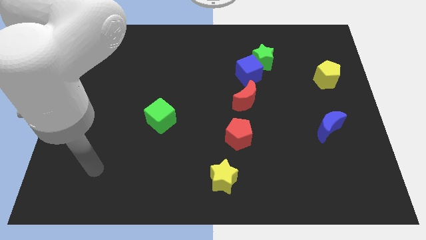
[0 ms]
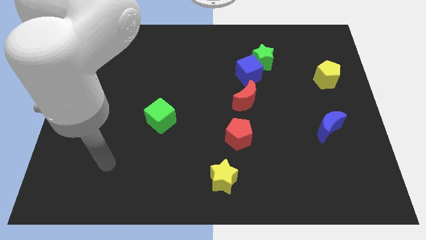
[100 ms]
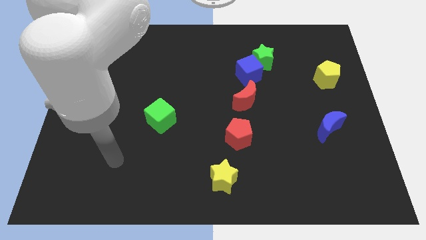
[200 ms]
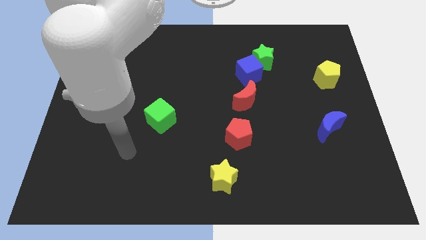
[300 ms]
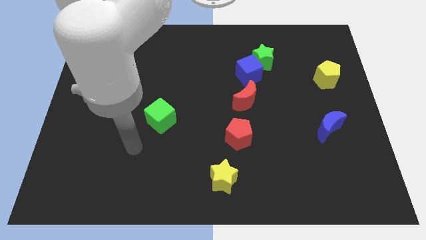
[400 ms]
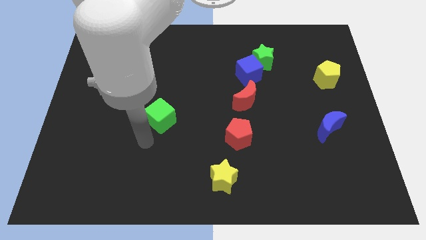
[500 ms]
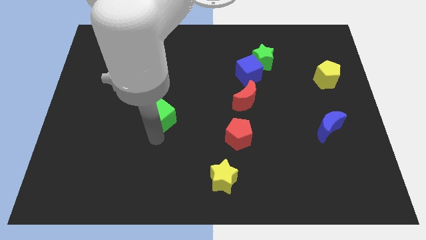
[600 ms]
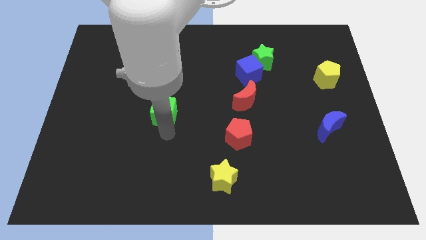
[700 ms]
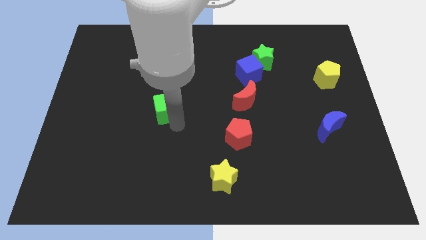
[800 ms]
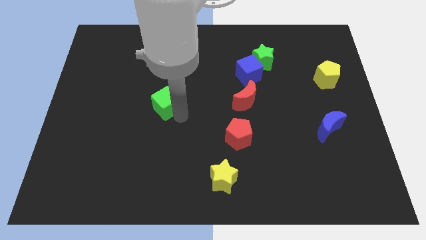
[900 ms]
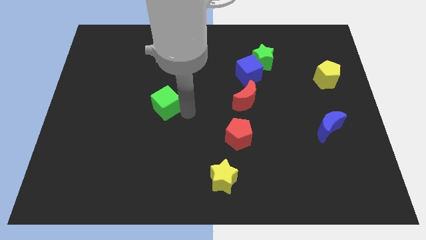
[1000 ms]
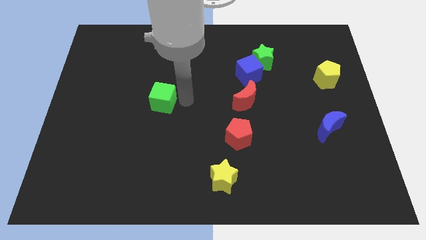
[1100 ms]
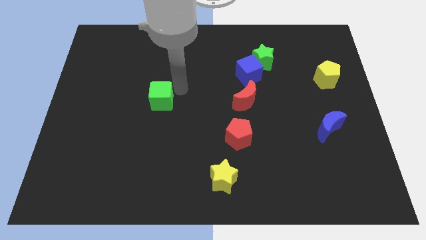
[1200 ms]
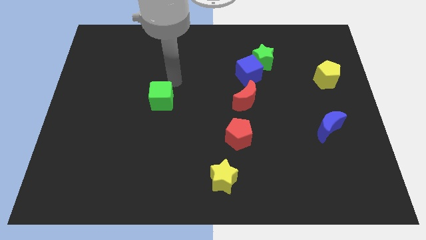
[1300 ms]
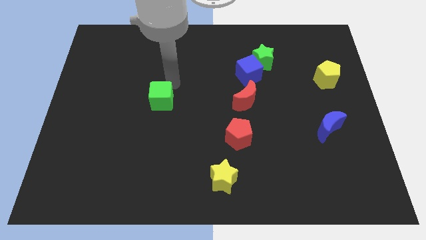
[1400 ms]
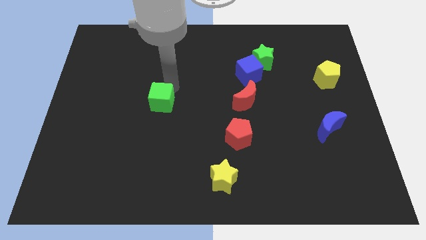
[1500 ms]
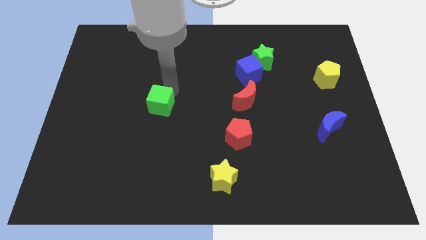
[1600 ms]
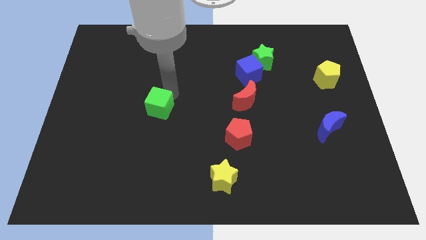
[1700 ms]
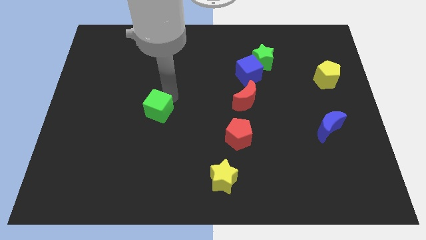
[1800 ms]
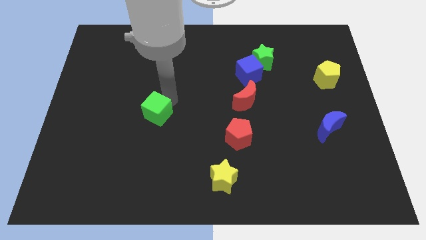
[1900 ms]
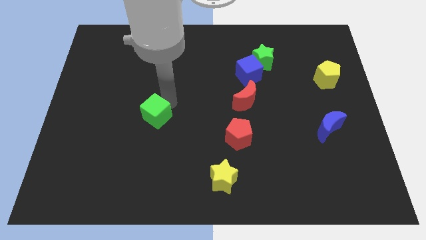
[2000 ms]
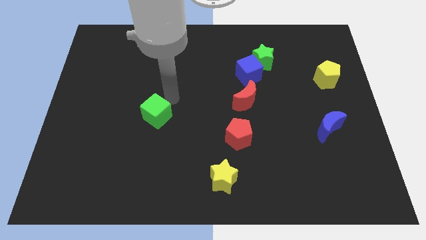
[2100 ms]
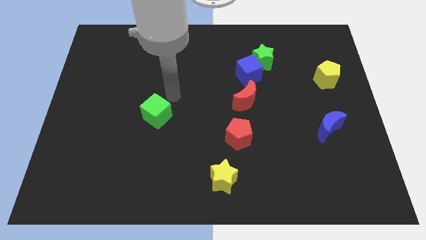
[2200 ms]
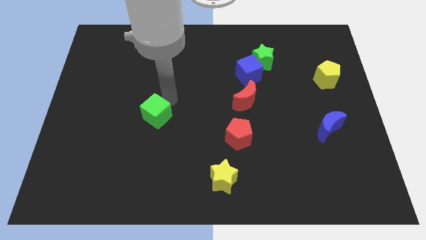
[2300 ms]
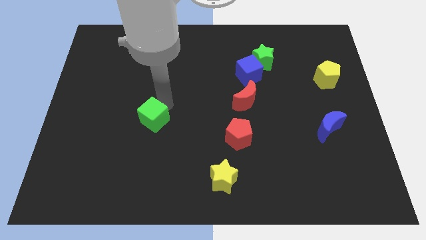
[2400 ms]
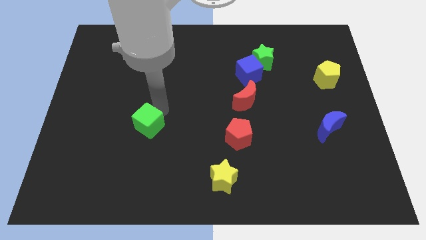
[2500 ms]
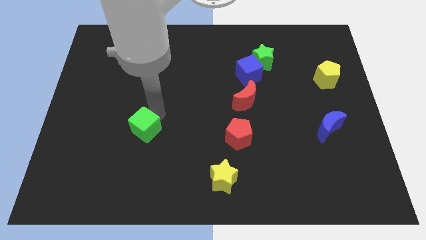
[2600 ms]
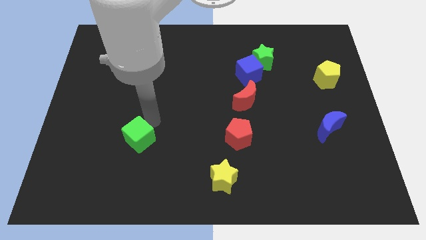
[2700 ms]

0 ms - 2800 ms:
slightly push the green cube diagonally down and left

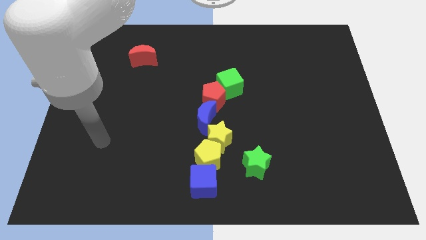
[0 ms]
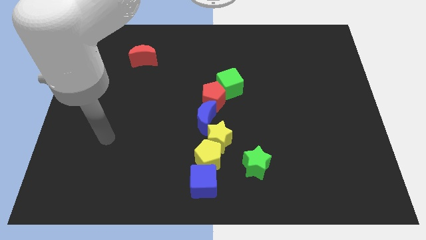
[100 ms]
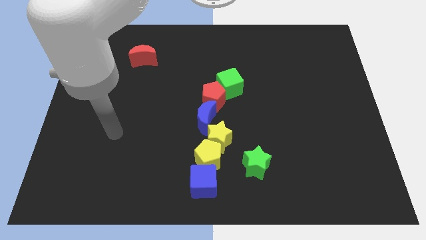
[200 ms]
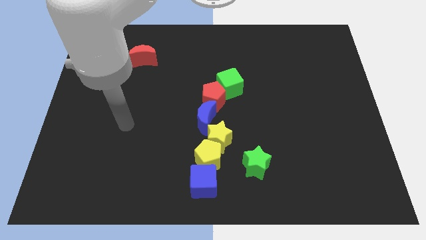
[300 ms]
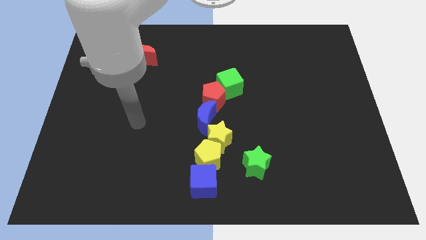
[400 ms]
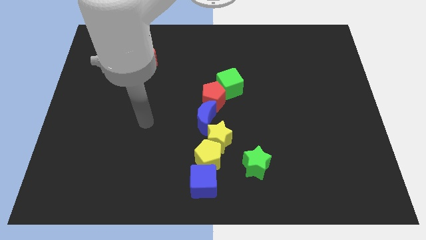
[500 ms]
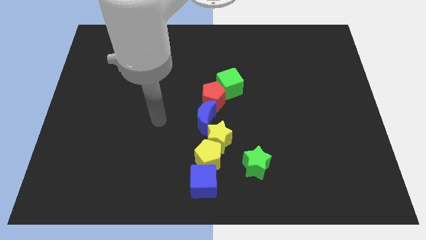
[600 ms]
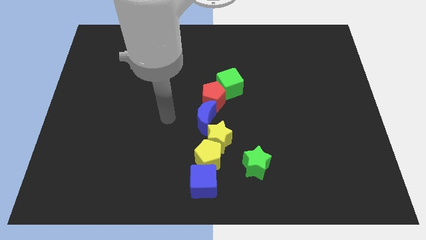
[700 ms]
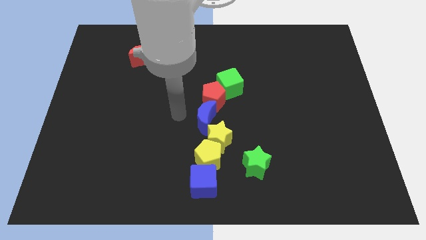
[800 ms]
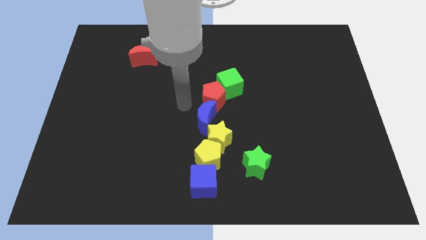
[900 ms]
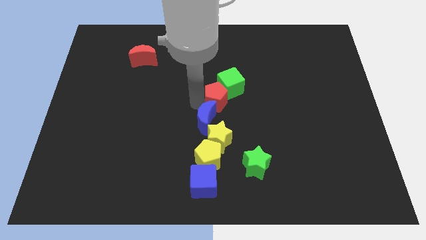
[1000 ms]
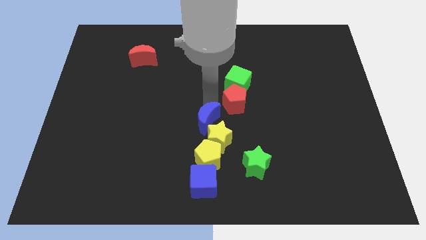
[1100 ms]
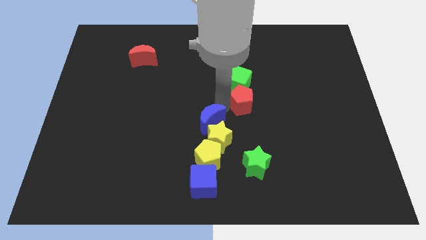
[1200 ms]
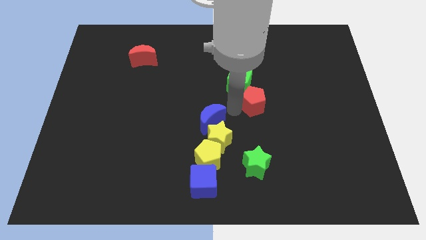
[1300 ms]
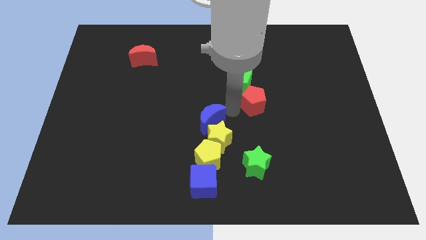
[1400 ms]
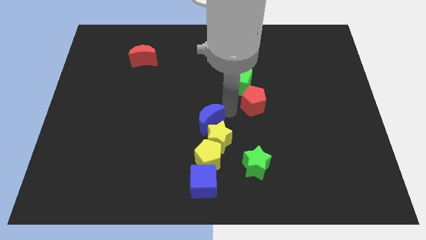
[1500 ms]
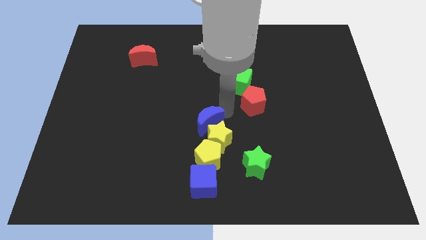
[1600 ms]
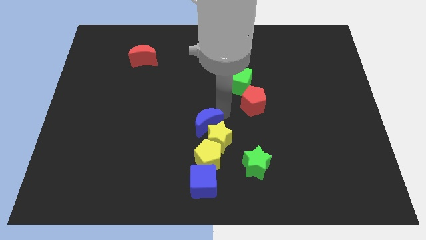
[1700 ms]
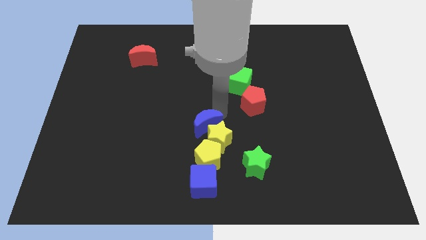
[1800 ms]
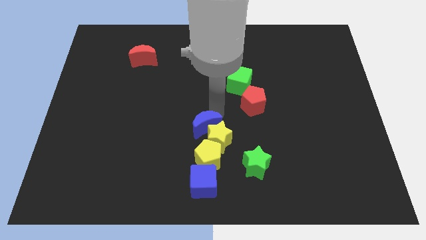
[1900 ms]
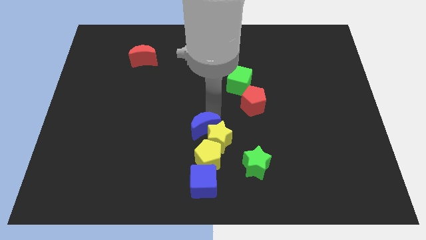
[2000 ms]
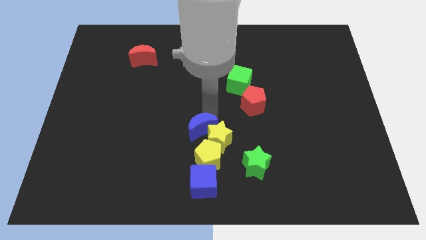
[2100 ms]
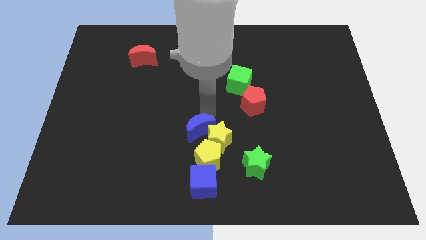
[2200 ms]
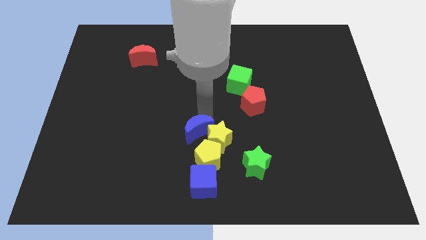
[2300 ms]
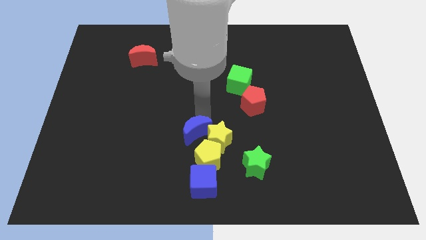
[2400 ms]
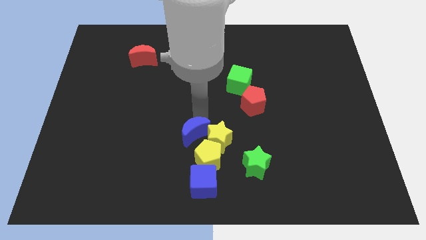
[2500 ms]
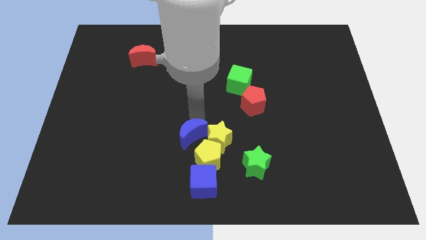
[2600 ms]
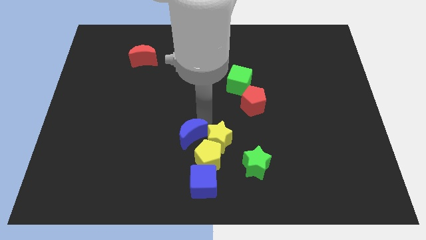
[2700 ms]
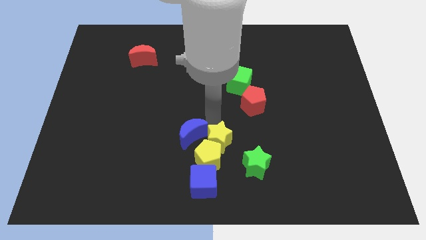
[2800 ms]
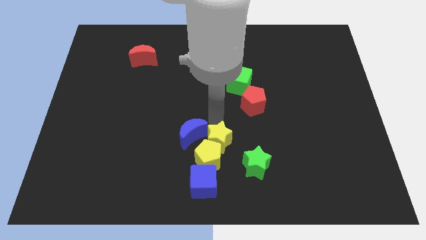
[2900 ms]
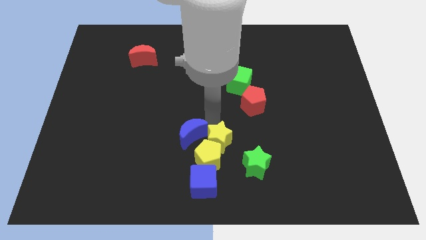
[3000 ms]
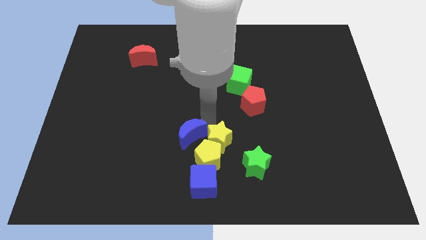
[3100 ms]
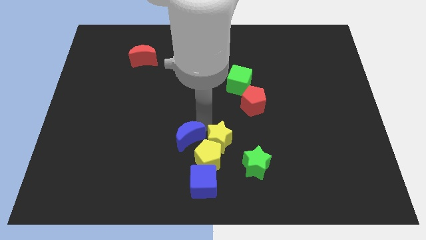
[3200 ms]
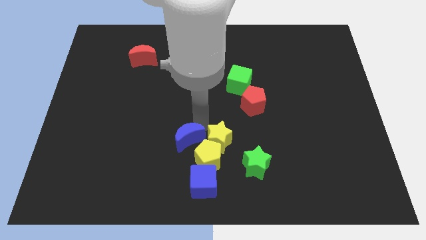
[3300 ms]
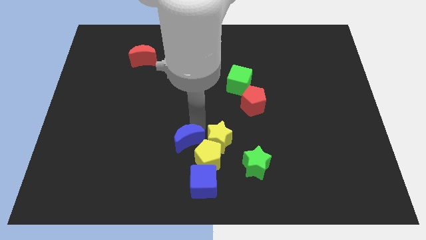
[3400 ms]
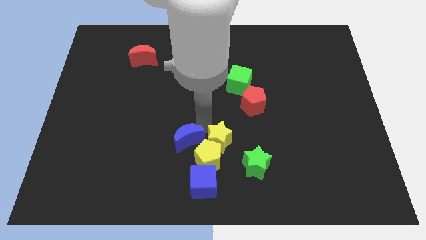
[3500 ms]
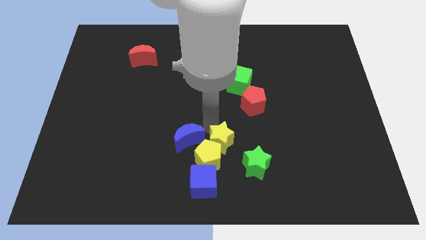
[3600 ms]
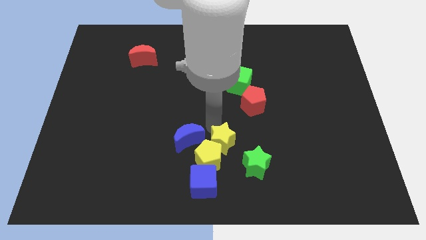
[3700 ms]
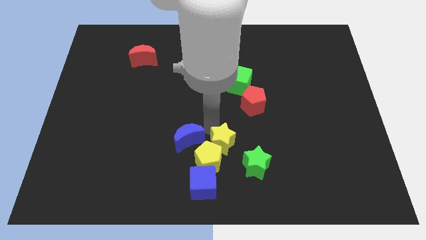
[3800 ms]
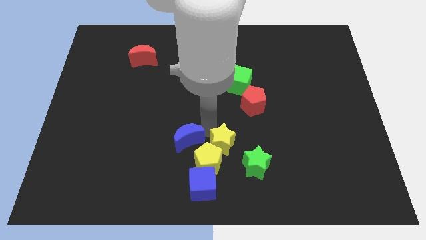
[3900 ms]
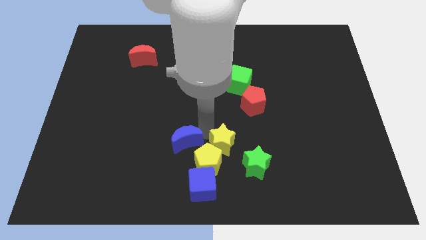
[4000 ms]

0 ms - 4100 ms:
push the blue moon a bit down and to the left

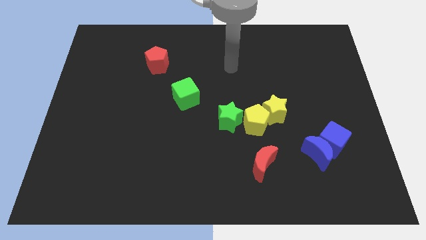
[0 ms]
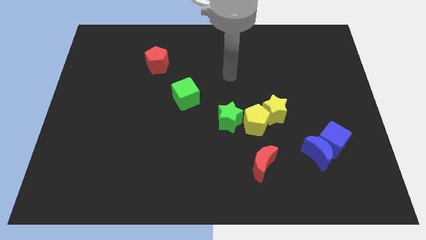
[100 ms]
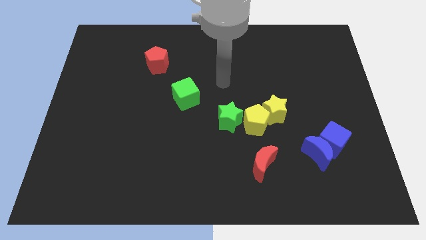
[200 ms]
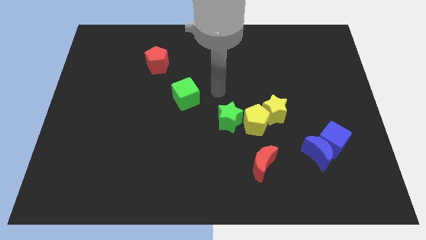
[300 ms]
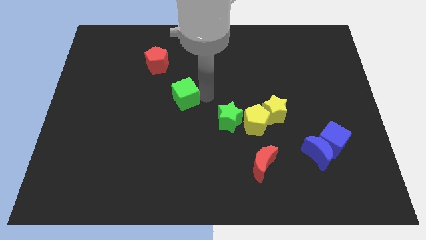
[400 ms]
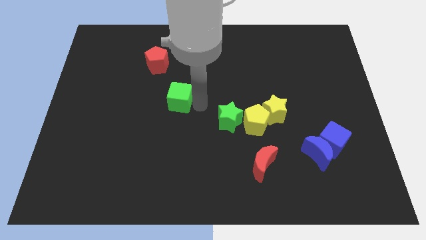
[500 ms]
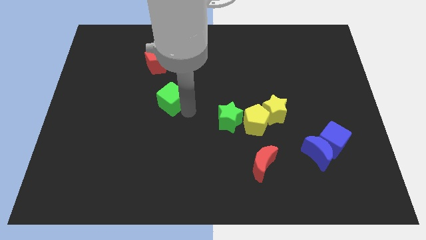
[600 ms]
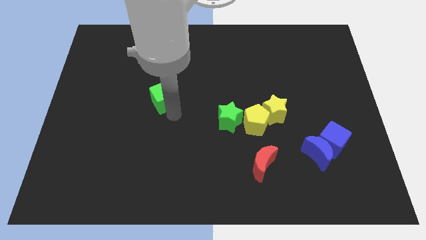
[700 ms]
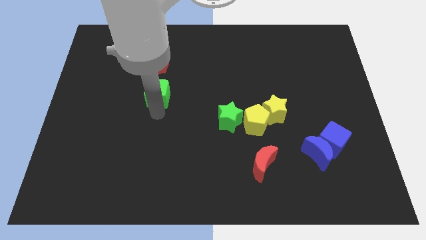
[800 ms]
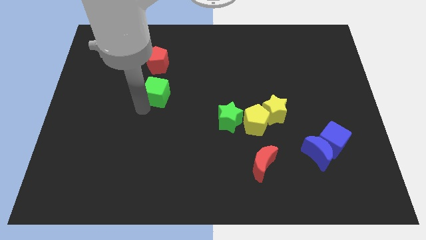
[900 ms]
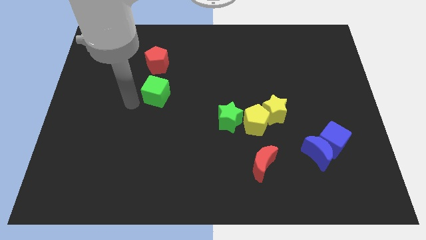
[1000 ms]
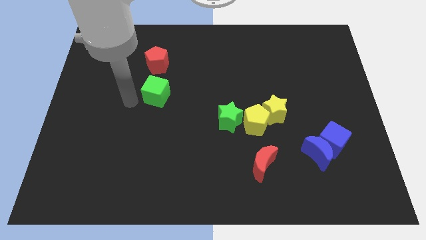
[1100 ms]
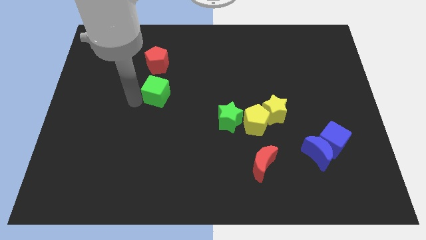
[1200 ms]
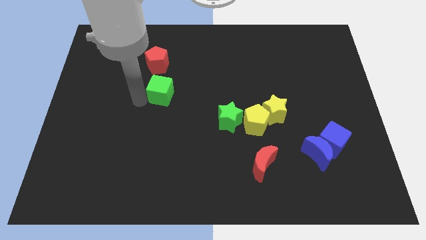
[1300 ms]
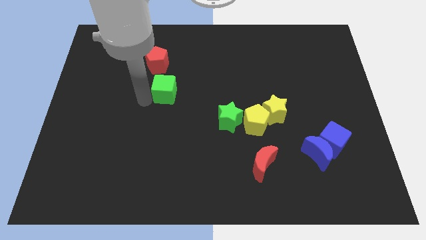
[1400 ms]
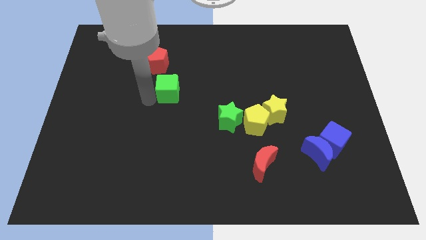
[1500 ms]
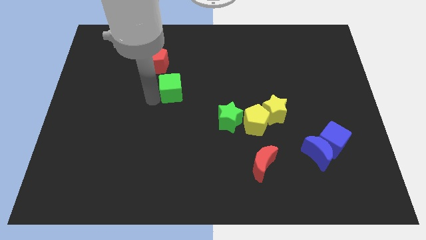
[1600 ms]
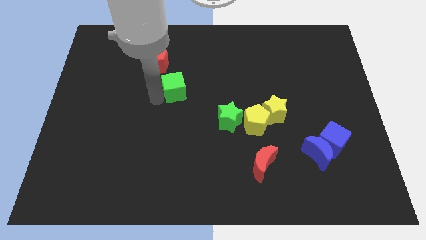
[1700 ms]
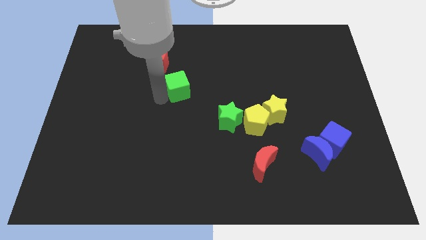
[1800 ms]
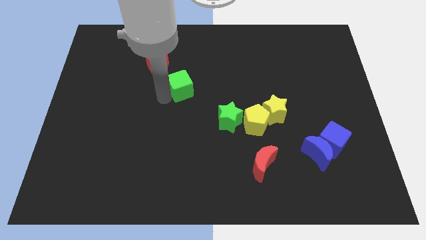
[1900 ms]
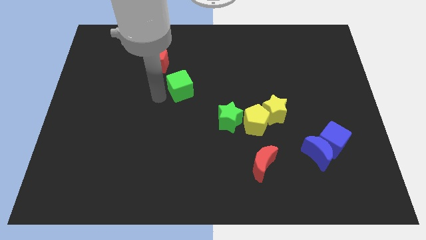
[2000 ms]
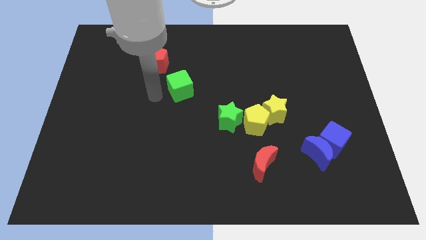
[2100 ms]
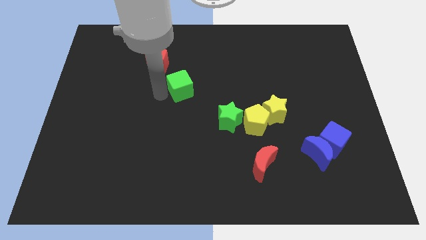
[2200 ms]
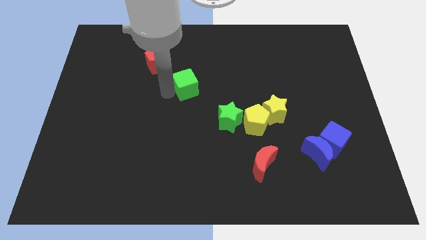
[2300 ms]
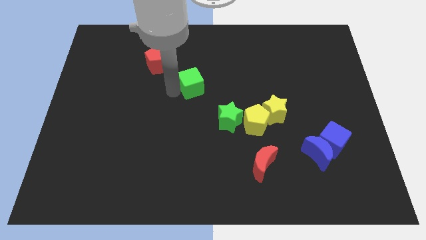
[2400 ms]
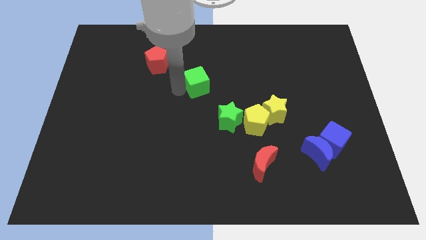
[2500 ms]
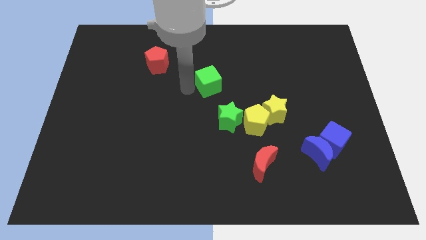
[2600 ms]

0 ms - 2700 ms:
push the green cube a bit upwards and then to the right
